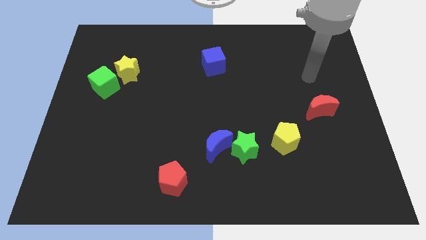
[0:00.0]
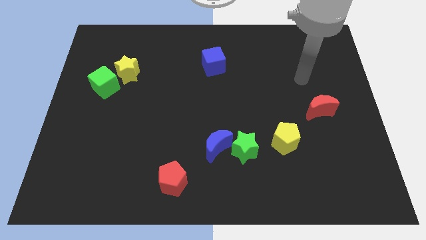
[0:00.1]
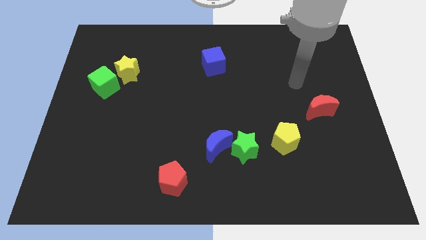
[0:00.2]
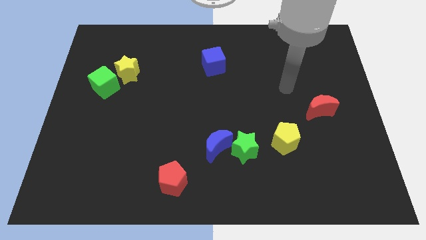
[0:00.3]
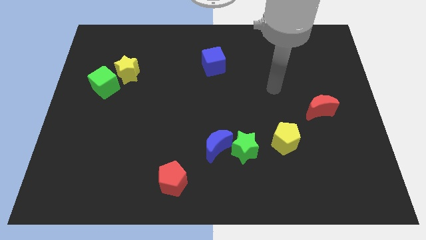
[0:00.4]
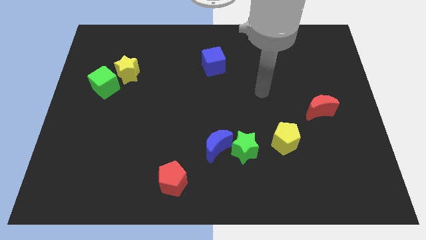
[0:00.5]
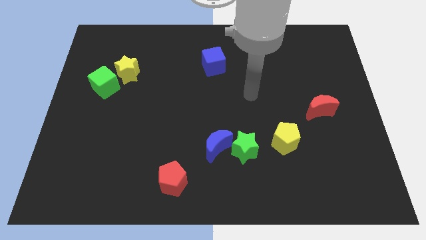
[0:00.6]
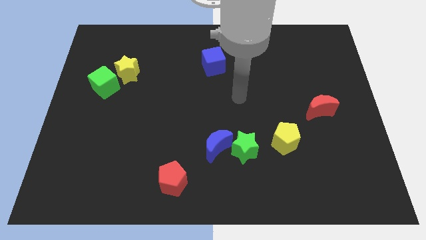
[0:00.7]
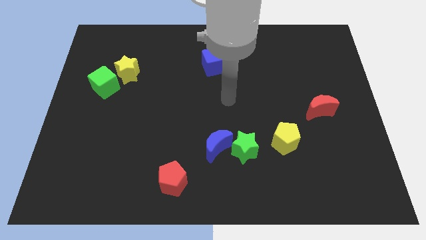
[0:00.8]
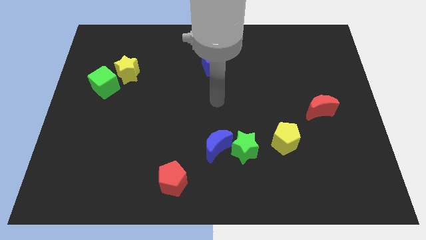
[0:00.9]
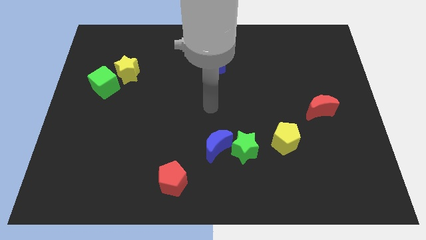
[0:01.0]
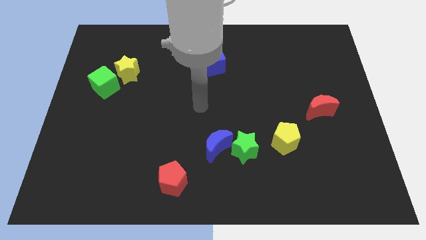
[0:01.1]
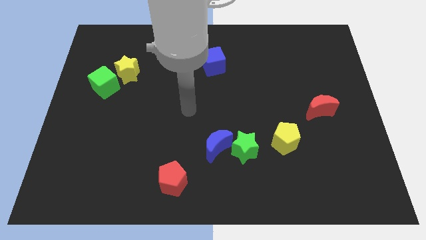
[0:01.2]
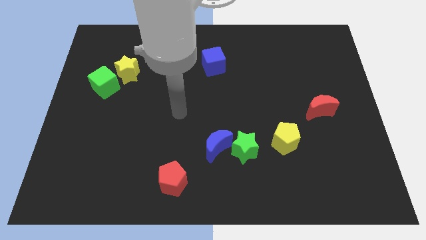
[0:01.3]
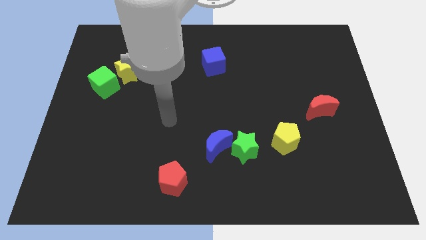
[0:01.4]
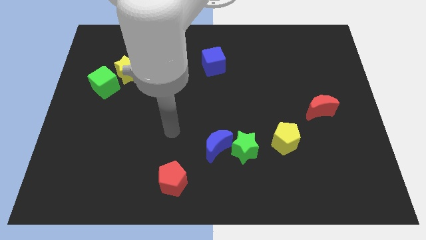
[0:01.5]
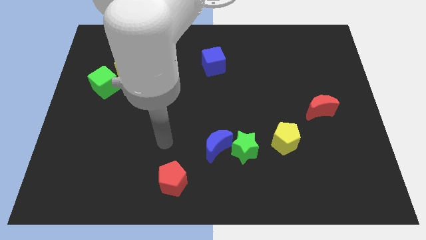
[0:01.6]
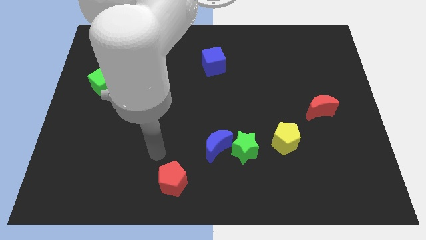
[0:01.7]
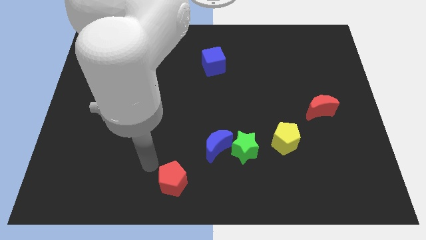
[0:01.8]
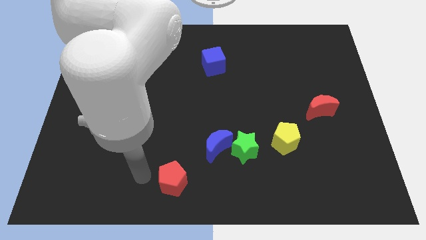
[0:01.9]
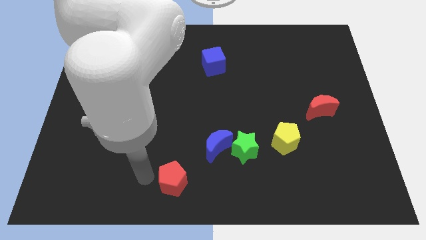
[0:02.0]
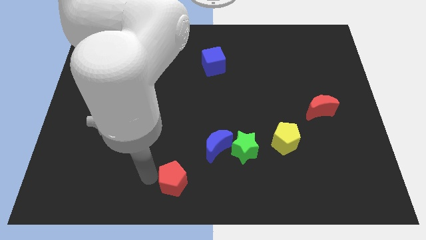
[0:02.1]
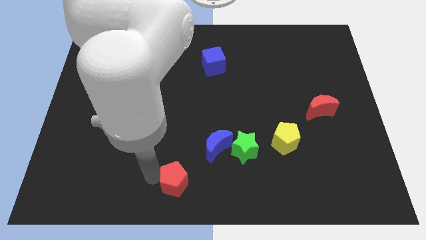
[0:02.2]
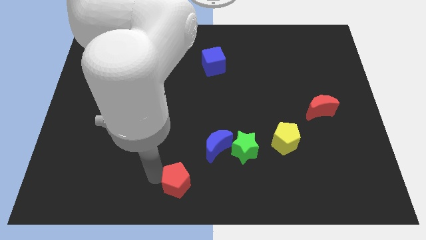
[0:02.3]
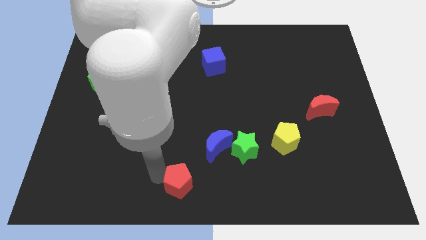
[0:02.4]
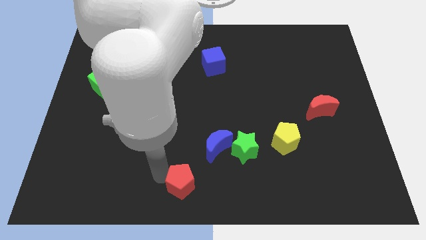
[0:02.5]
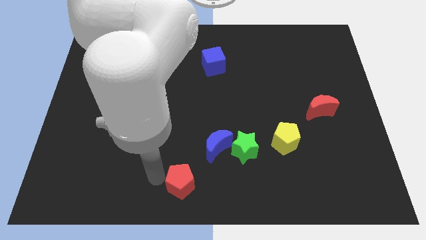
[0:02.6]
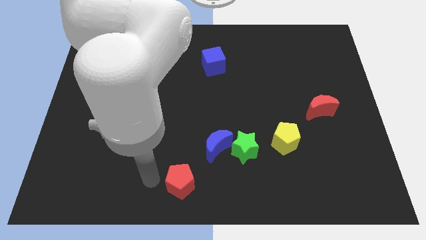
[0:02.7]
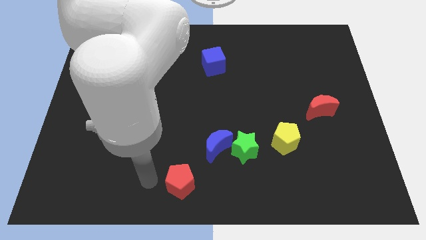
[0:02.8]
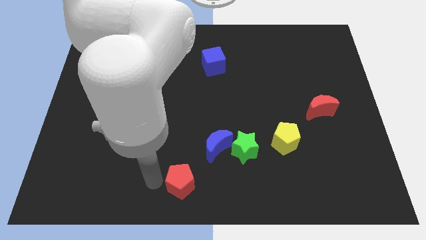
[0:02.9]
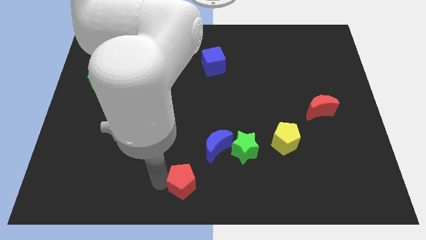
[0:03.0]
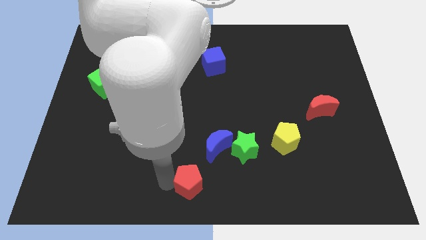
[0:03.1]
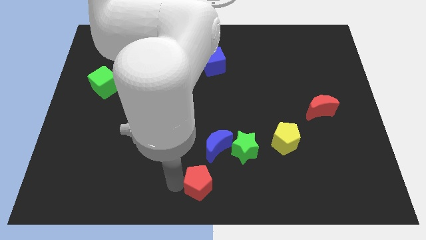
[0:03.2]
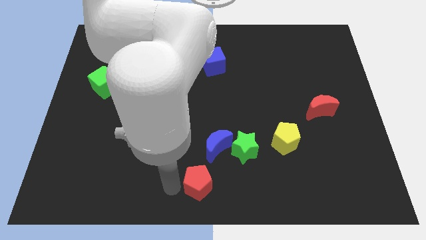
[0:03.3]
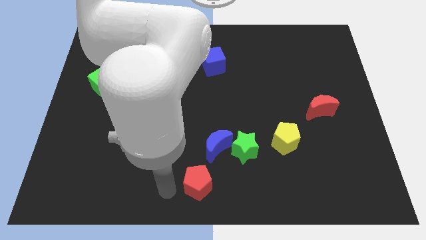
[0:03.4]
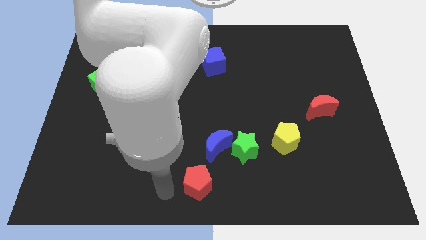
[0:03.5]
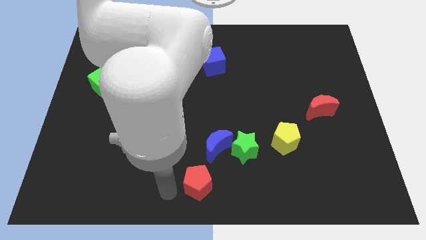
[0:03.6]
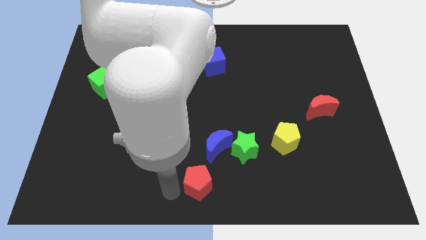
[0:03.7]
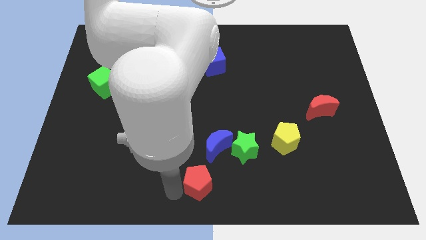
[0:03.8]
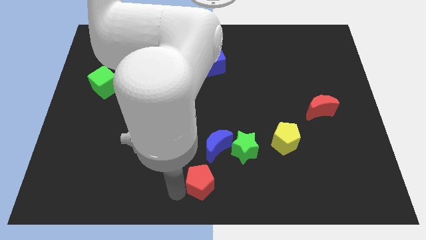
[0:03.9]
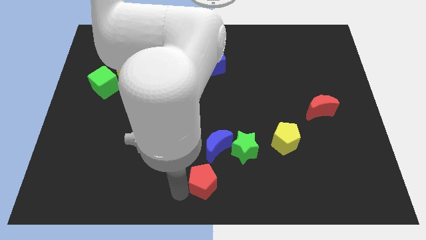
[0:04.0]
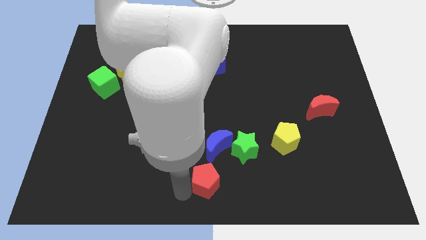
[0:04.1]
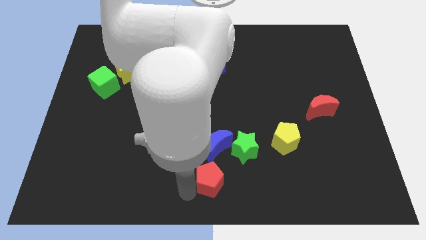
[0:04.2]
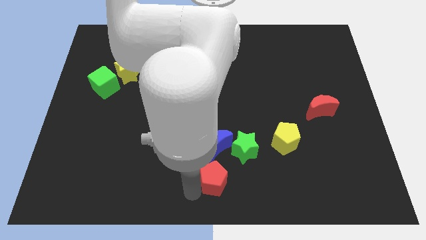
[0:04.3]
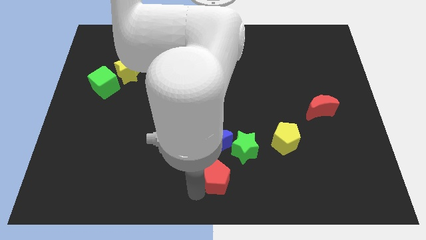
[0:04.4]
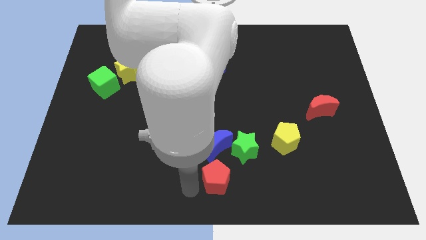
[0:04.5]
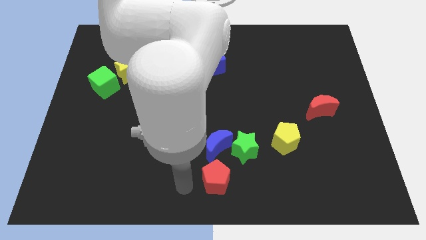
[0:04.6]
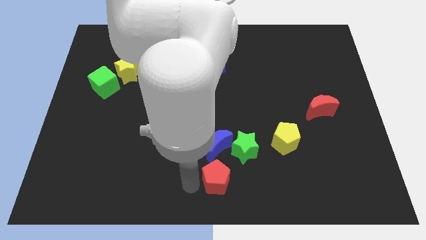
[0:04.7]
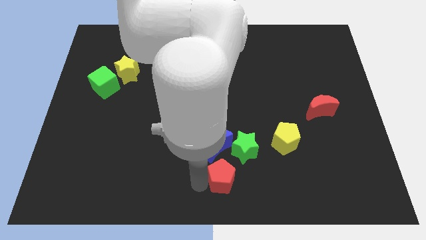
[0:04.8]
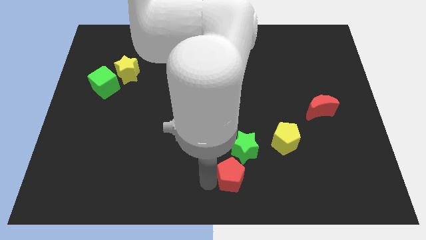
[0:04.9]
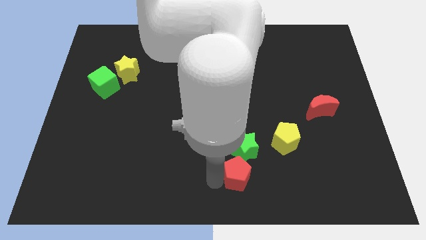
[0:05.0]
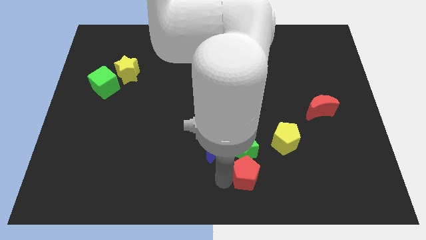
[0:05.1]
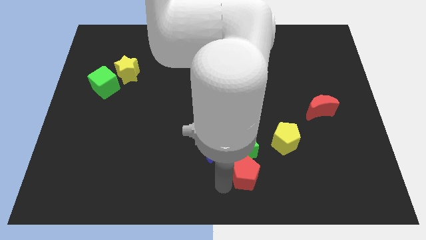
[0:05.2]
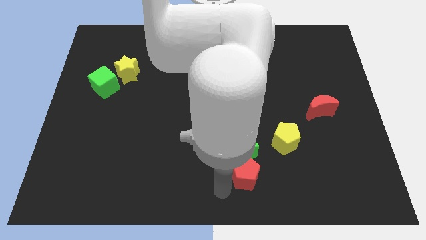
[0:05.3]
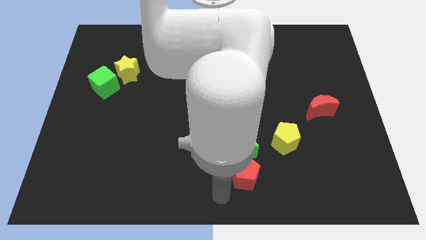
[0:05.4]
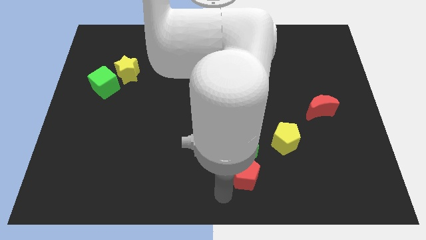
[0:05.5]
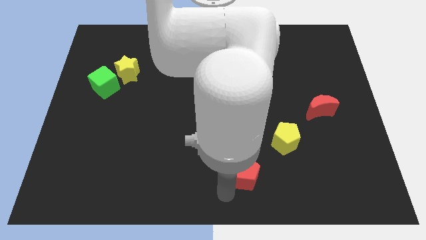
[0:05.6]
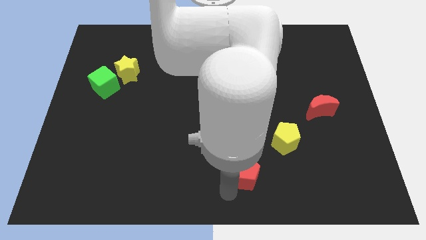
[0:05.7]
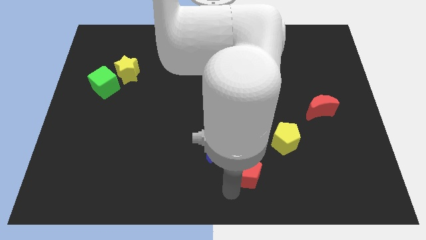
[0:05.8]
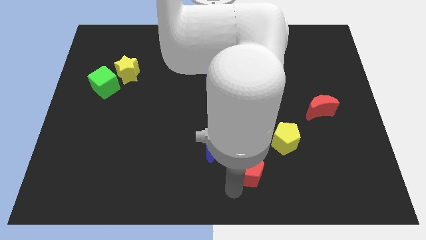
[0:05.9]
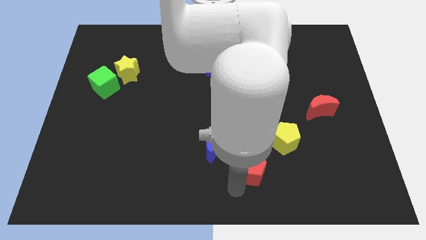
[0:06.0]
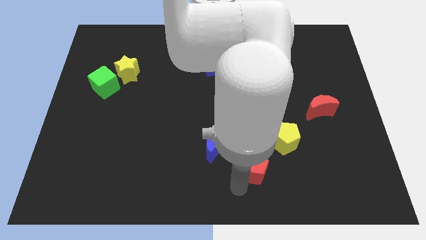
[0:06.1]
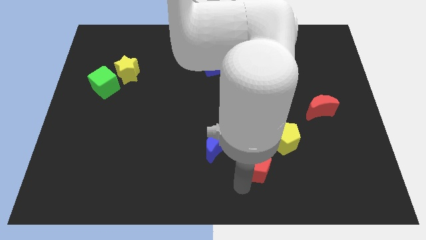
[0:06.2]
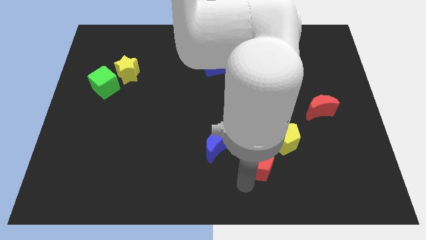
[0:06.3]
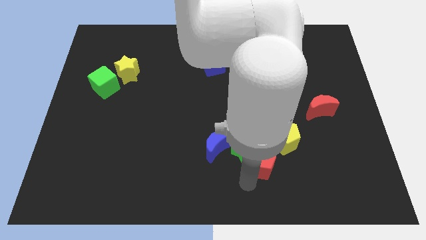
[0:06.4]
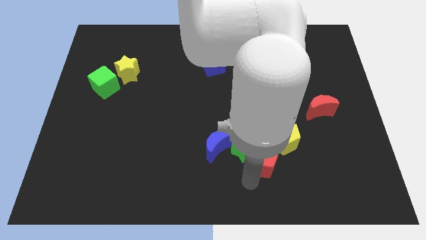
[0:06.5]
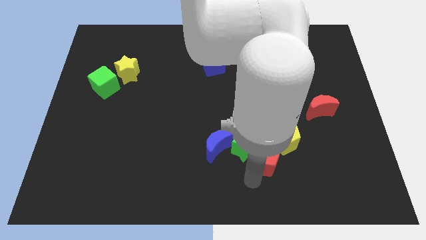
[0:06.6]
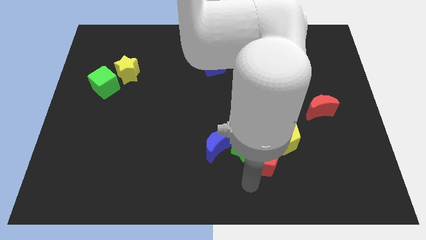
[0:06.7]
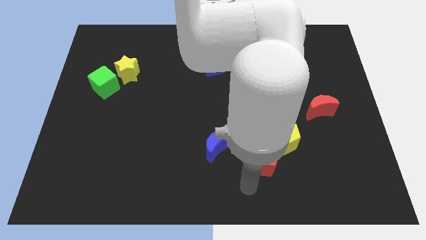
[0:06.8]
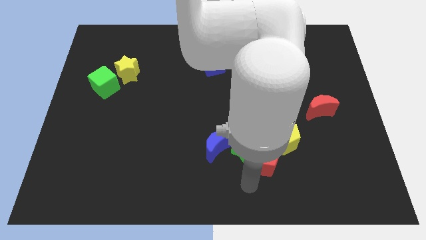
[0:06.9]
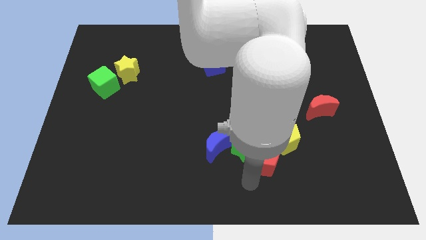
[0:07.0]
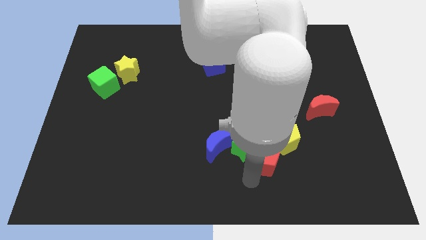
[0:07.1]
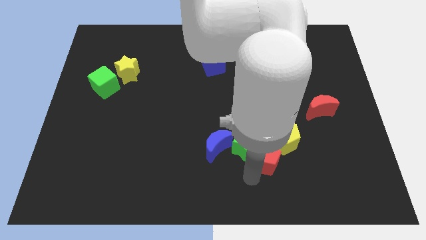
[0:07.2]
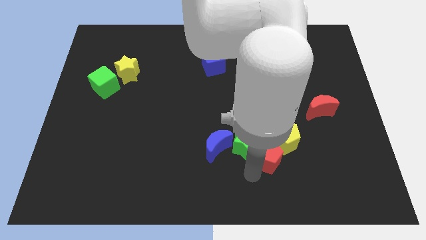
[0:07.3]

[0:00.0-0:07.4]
move the red pentagon to the yellow pentagon
